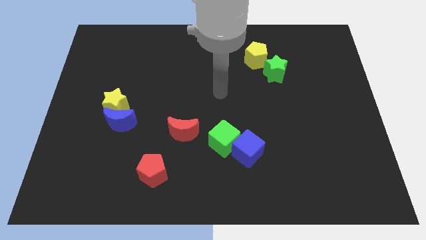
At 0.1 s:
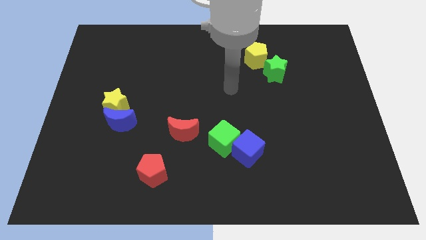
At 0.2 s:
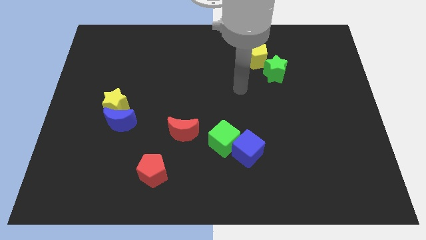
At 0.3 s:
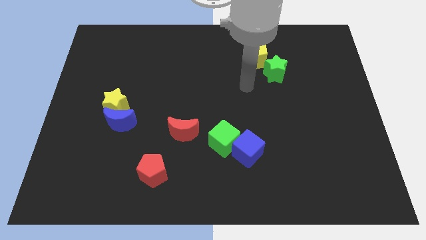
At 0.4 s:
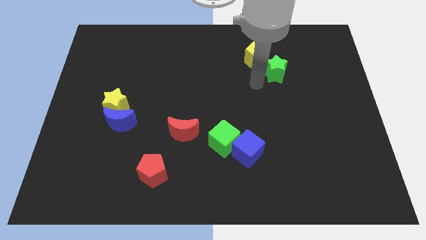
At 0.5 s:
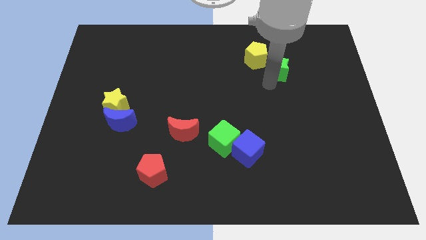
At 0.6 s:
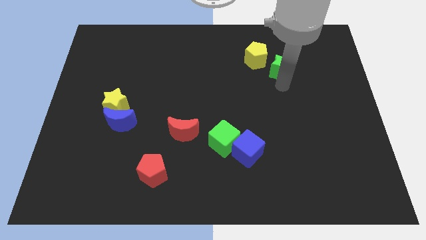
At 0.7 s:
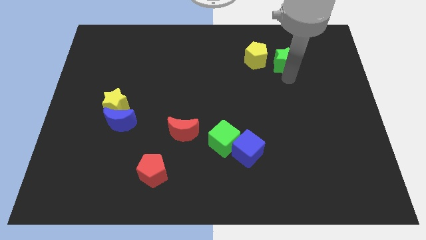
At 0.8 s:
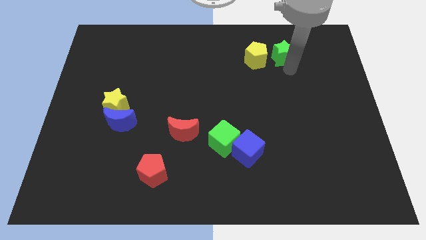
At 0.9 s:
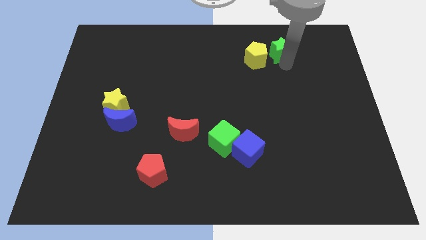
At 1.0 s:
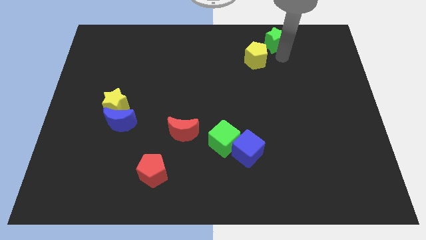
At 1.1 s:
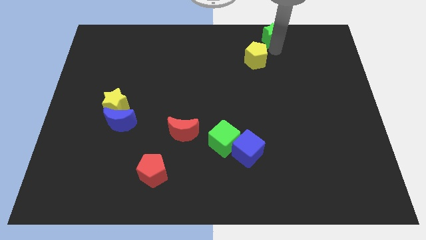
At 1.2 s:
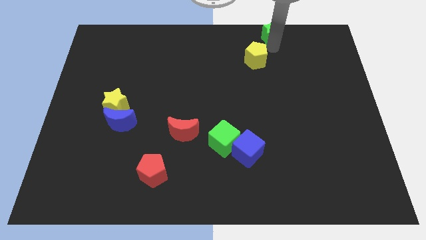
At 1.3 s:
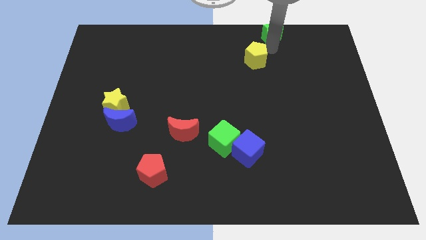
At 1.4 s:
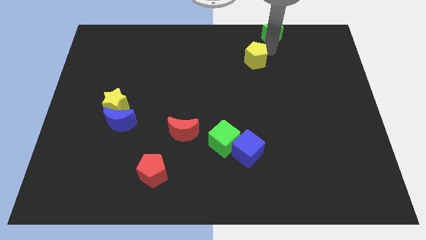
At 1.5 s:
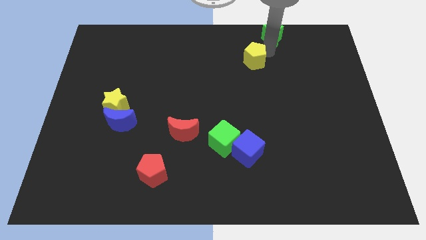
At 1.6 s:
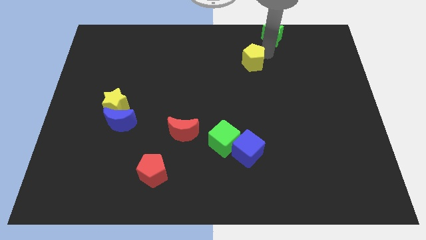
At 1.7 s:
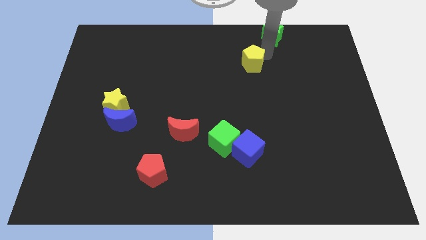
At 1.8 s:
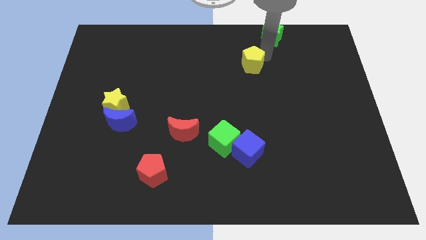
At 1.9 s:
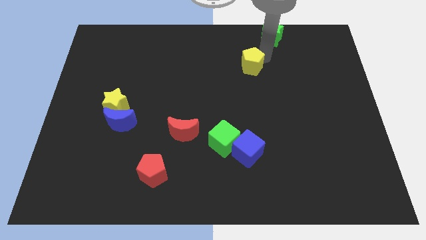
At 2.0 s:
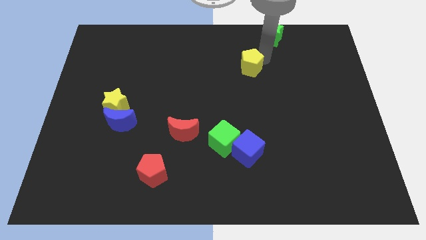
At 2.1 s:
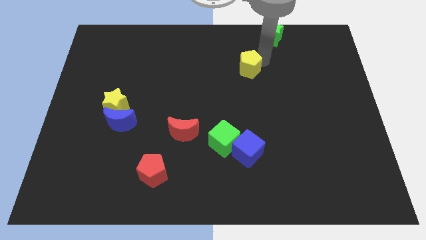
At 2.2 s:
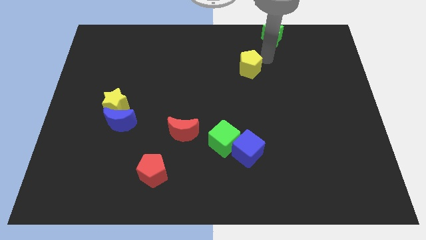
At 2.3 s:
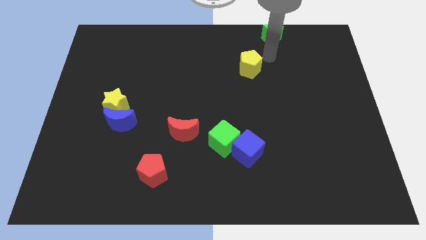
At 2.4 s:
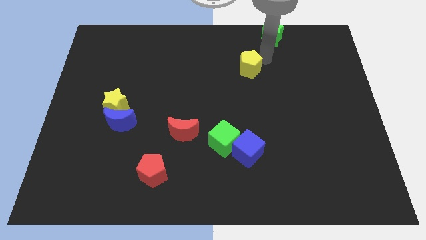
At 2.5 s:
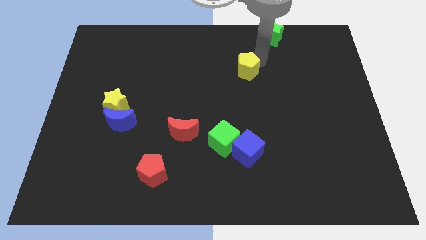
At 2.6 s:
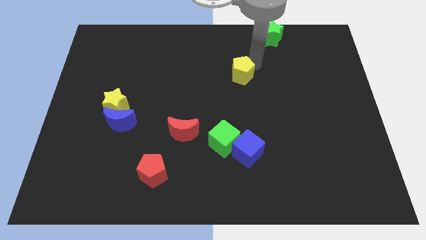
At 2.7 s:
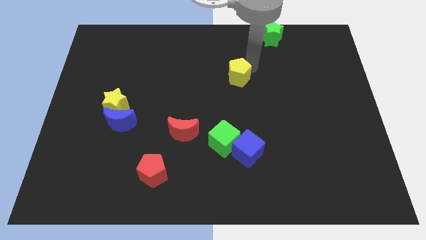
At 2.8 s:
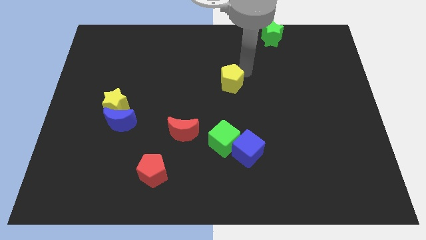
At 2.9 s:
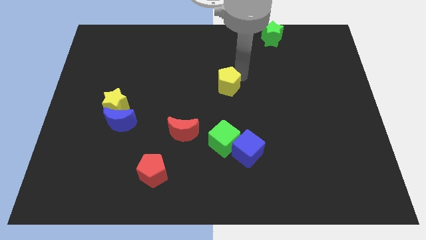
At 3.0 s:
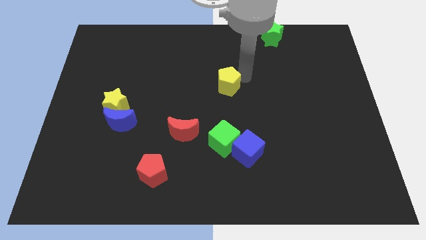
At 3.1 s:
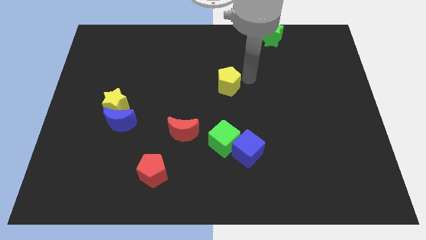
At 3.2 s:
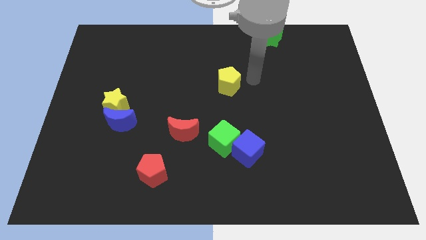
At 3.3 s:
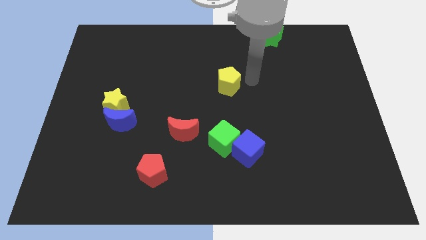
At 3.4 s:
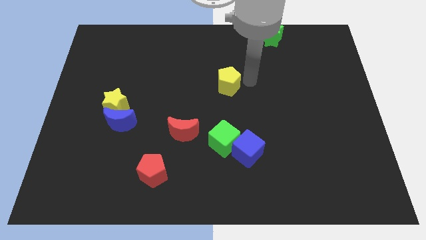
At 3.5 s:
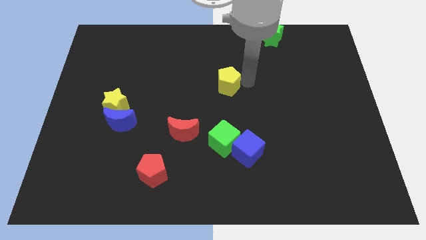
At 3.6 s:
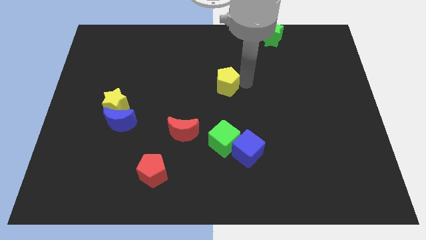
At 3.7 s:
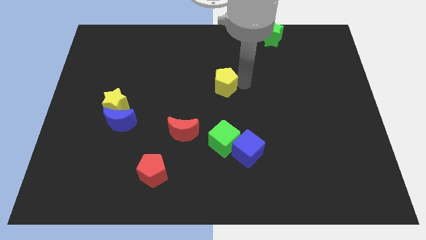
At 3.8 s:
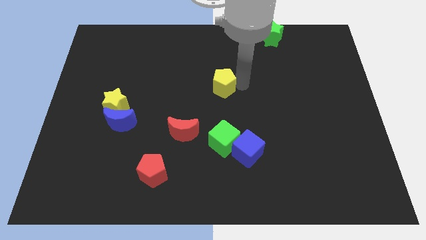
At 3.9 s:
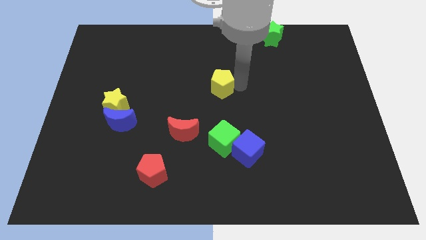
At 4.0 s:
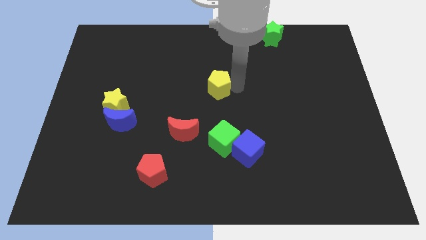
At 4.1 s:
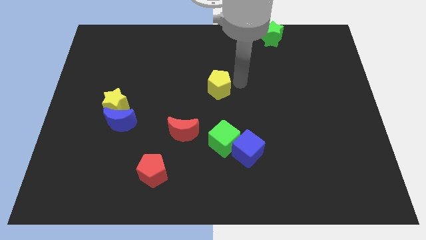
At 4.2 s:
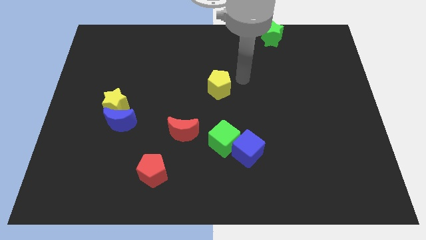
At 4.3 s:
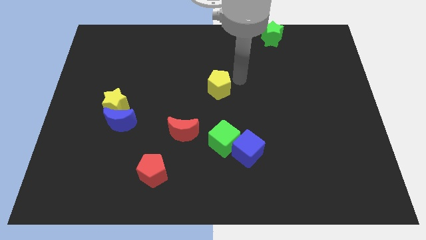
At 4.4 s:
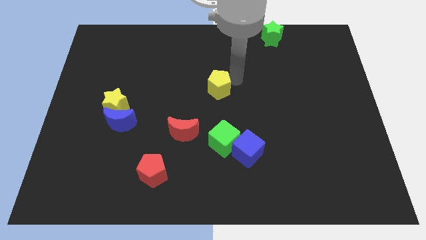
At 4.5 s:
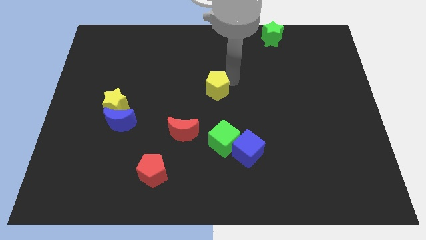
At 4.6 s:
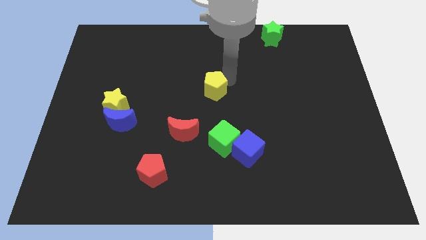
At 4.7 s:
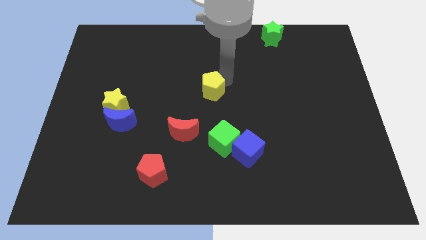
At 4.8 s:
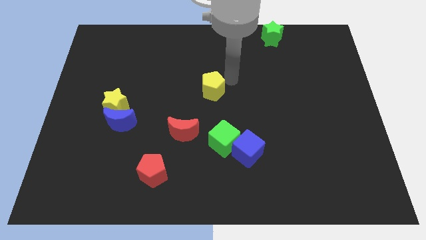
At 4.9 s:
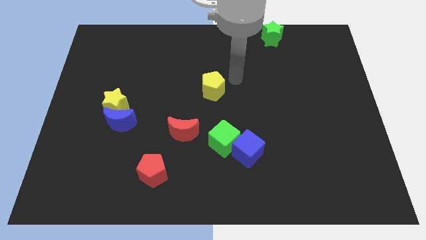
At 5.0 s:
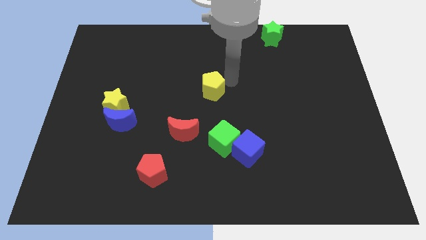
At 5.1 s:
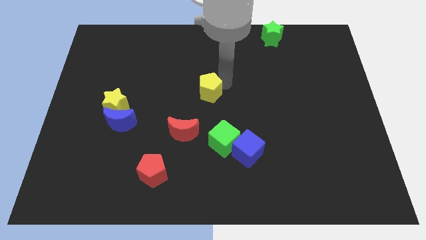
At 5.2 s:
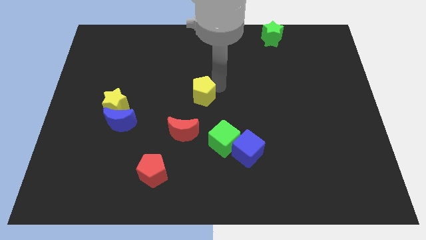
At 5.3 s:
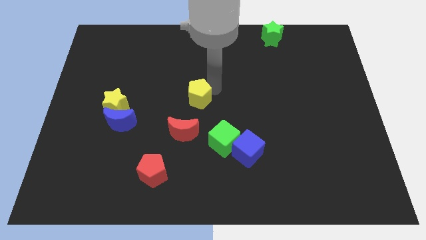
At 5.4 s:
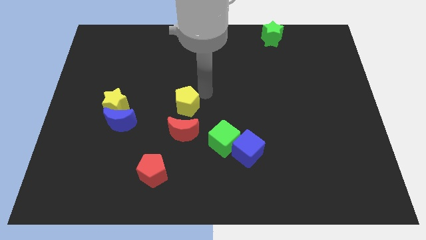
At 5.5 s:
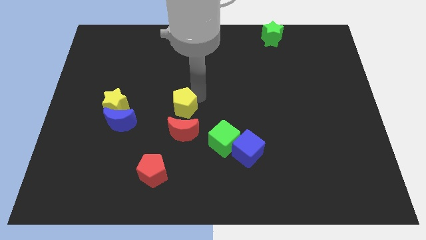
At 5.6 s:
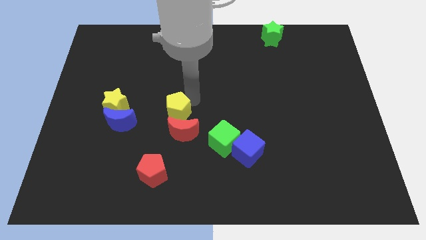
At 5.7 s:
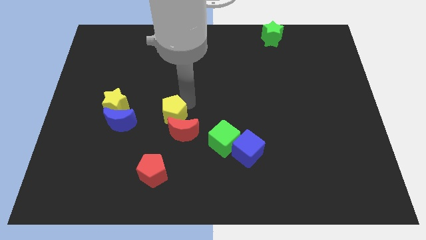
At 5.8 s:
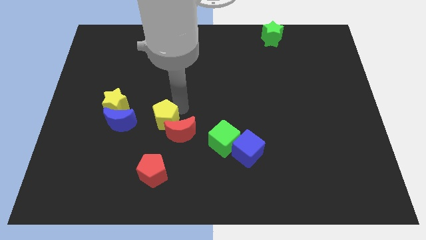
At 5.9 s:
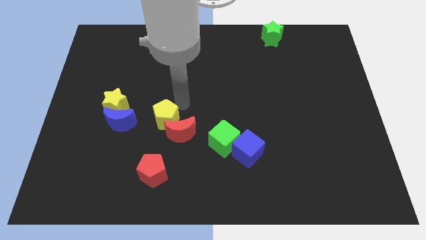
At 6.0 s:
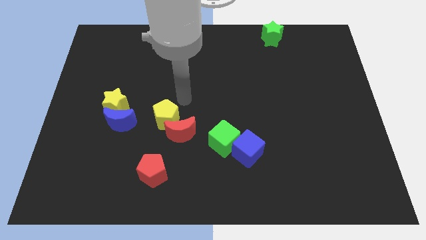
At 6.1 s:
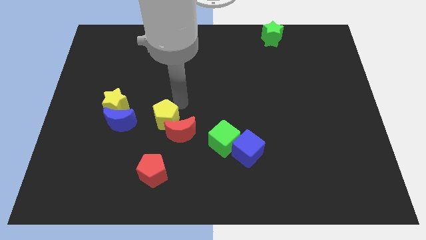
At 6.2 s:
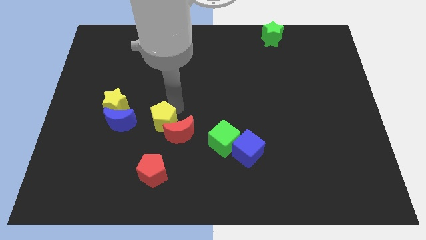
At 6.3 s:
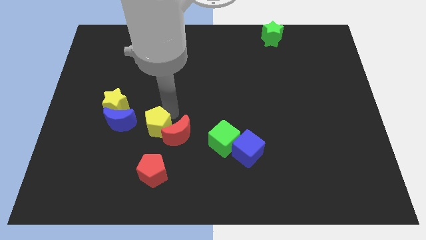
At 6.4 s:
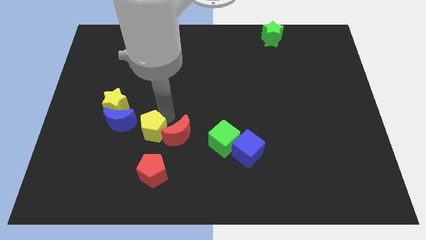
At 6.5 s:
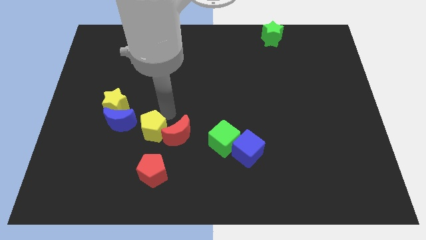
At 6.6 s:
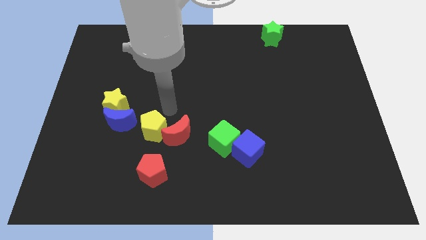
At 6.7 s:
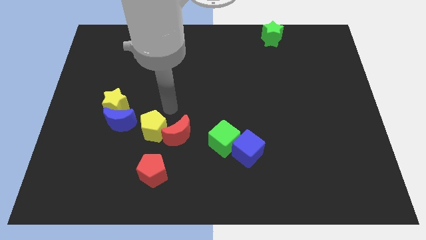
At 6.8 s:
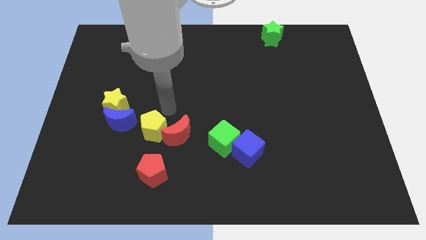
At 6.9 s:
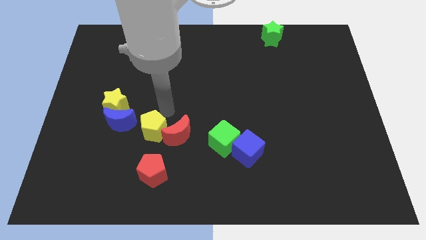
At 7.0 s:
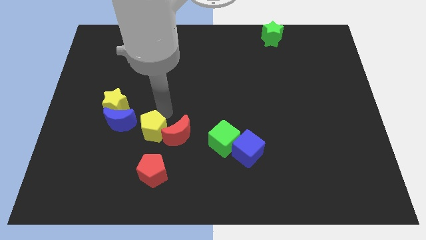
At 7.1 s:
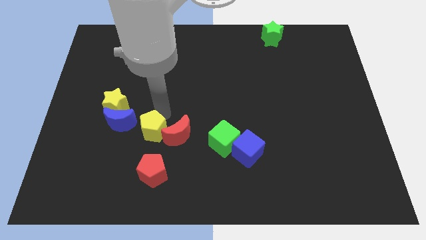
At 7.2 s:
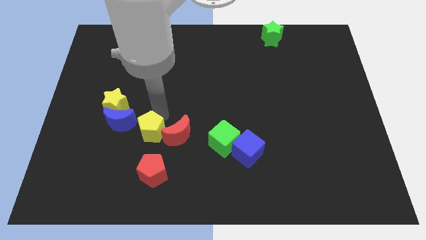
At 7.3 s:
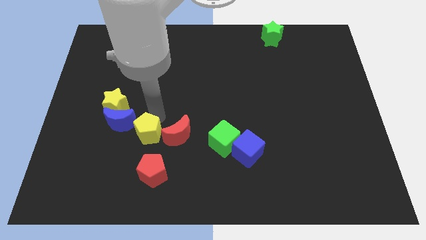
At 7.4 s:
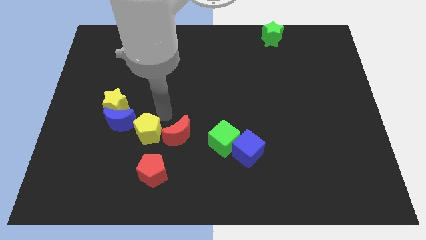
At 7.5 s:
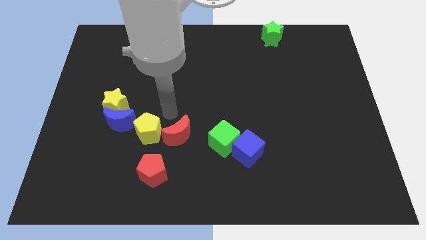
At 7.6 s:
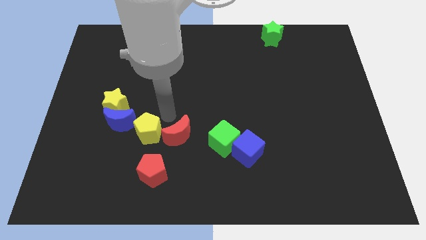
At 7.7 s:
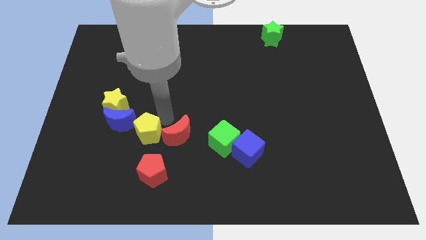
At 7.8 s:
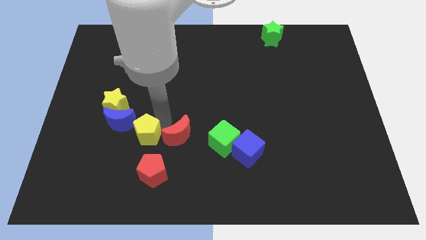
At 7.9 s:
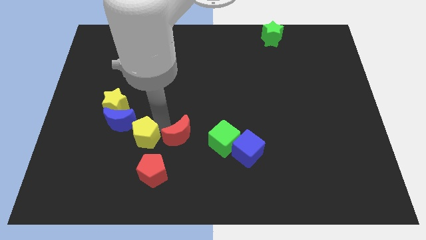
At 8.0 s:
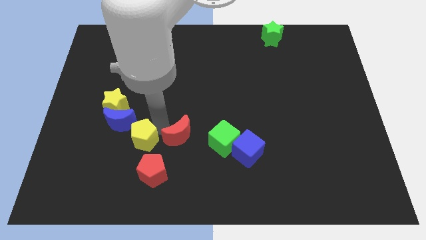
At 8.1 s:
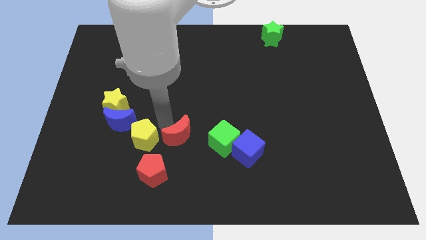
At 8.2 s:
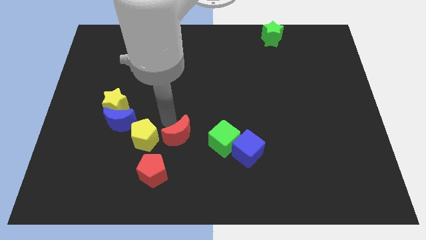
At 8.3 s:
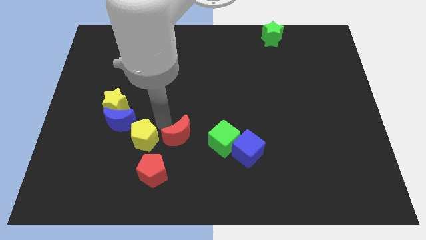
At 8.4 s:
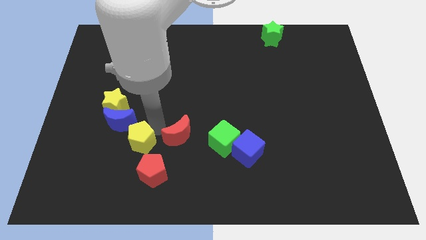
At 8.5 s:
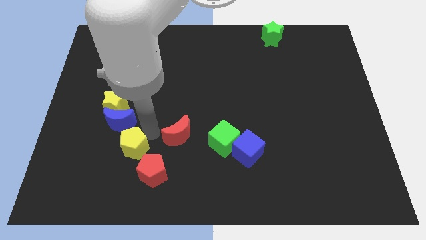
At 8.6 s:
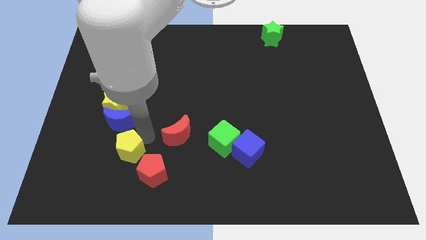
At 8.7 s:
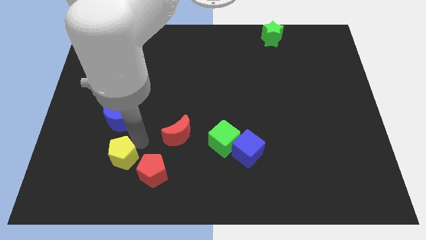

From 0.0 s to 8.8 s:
push the yellow pentagon to the left of the red pentagon
